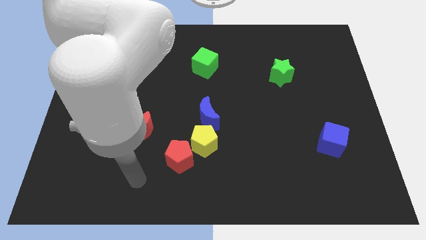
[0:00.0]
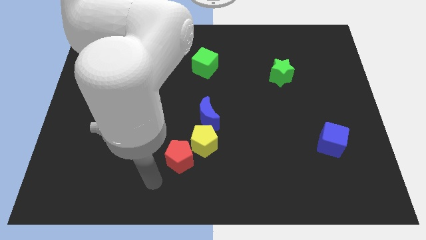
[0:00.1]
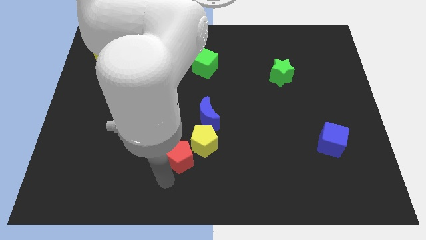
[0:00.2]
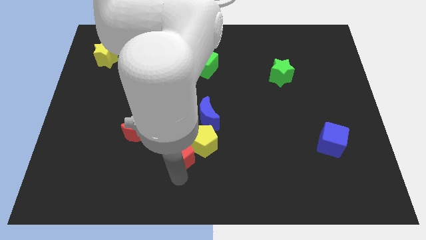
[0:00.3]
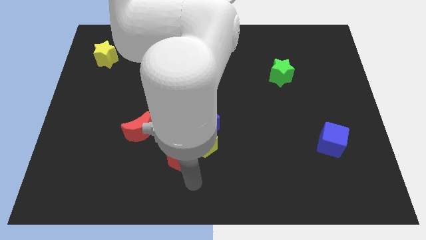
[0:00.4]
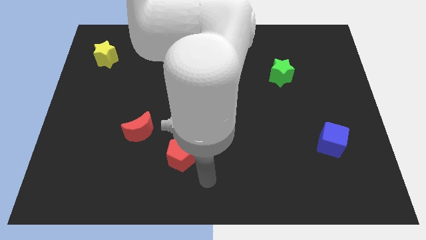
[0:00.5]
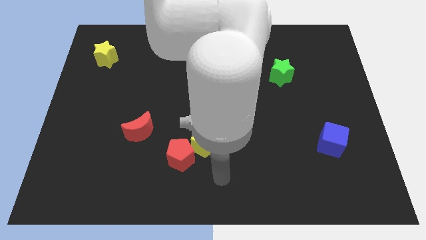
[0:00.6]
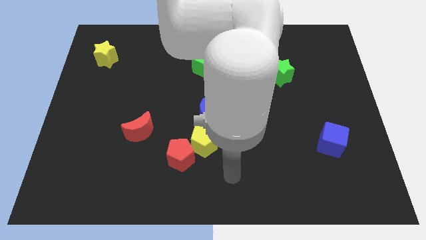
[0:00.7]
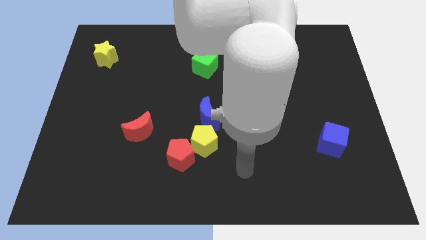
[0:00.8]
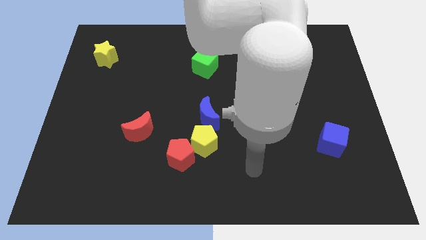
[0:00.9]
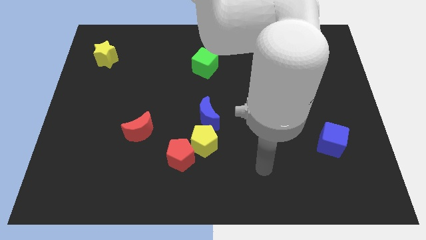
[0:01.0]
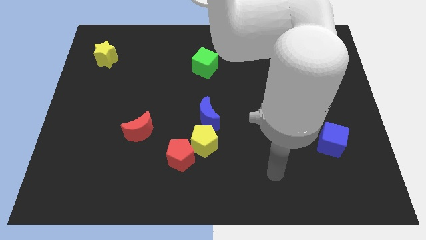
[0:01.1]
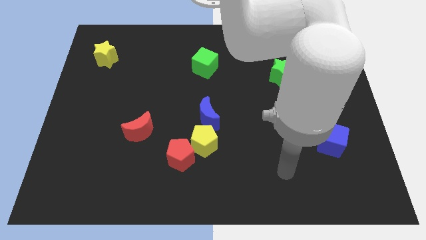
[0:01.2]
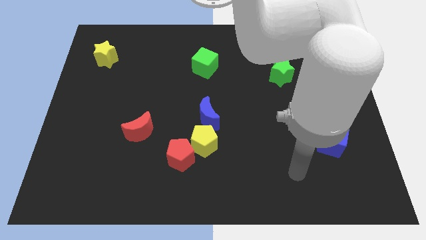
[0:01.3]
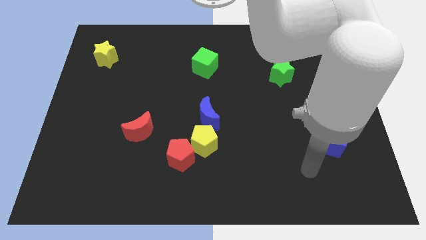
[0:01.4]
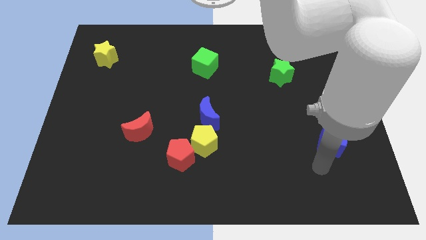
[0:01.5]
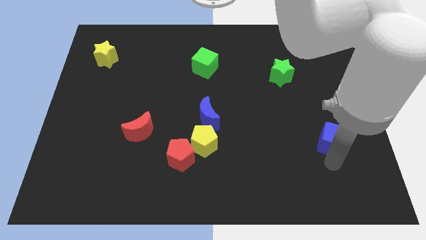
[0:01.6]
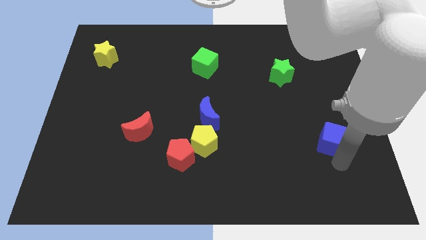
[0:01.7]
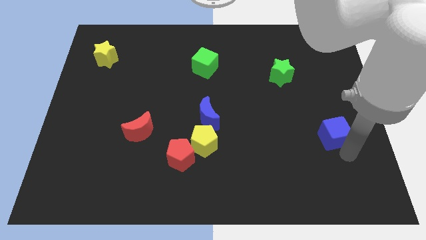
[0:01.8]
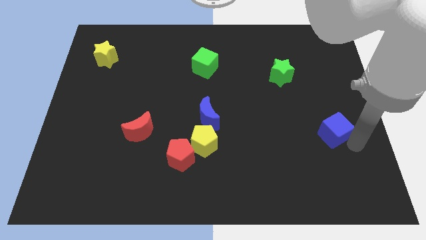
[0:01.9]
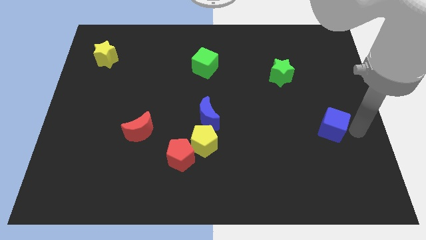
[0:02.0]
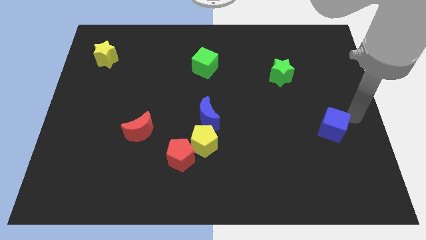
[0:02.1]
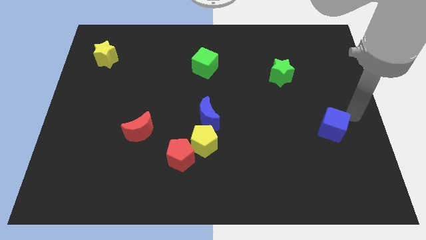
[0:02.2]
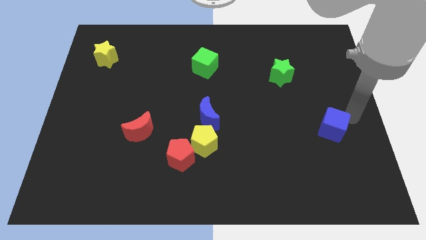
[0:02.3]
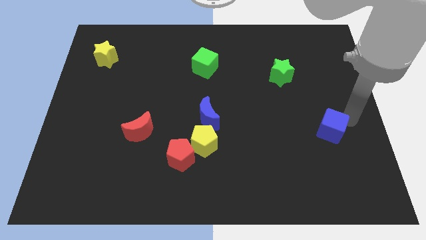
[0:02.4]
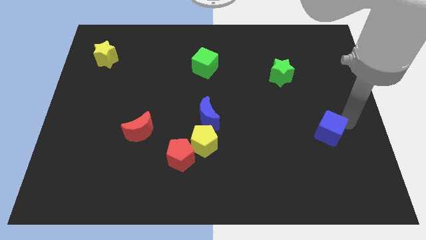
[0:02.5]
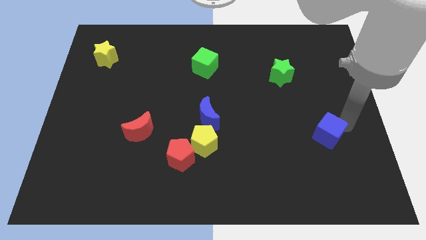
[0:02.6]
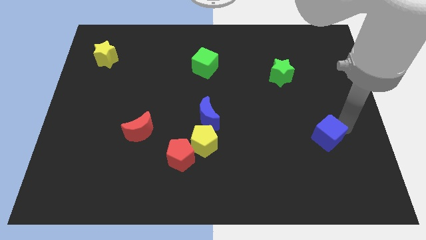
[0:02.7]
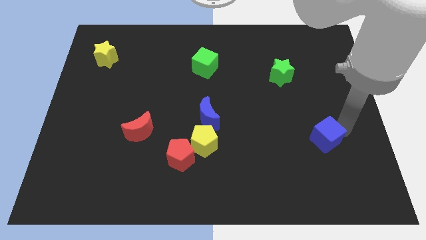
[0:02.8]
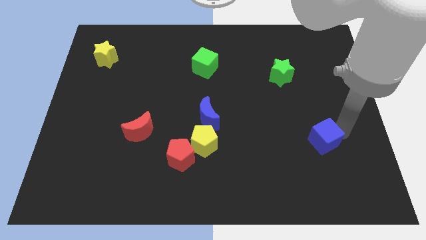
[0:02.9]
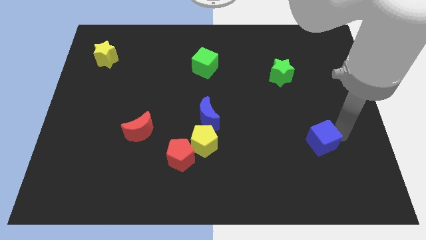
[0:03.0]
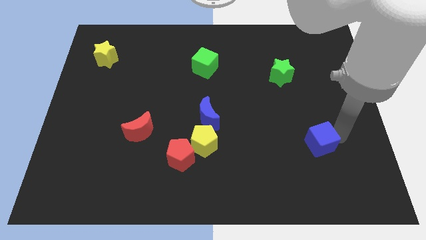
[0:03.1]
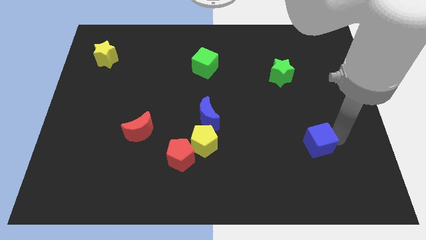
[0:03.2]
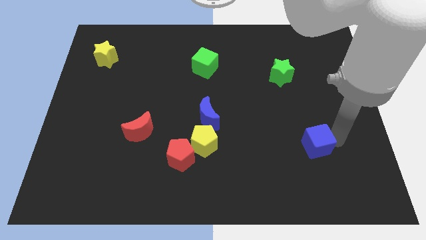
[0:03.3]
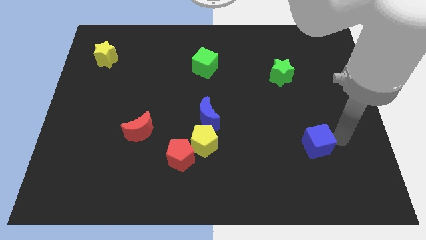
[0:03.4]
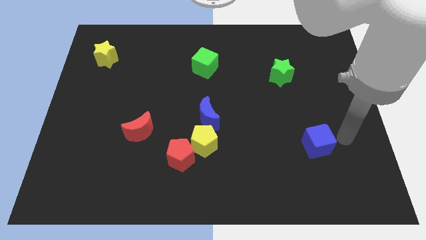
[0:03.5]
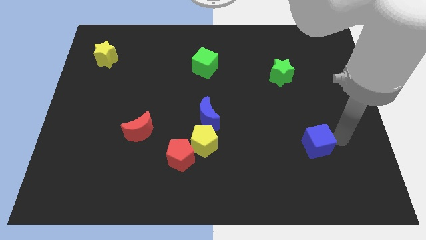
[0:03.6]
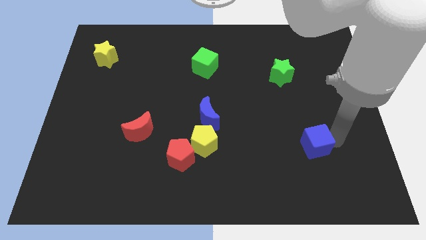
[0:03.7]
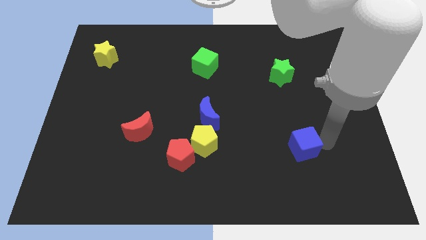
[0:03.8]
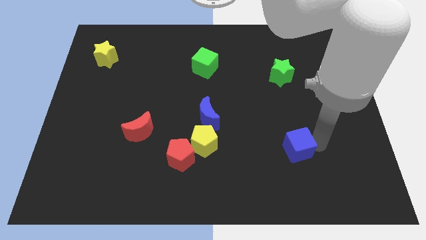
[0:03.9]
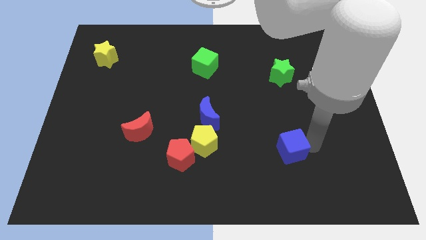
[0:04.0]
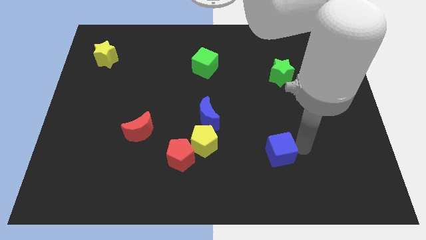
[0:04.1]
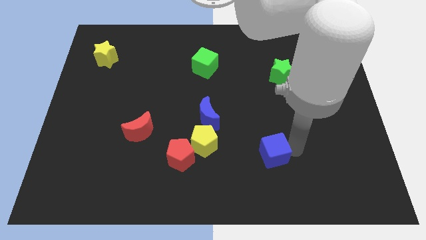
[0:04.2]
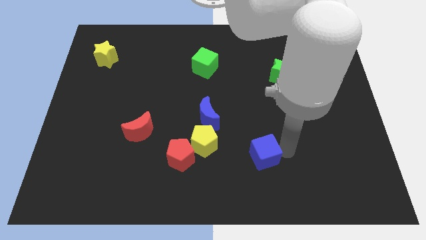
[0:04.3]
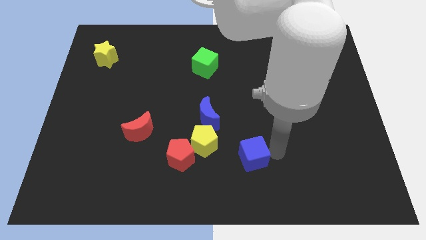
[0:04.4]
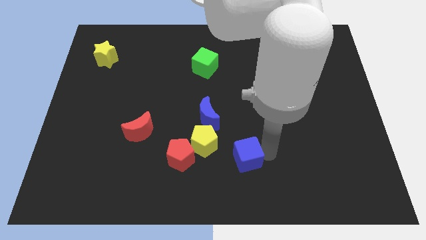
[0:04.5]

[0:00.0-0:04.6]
push the blue cube diagonally down and to the right of the yellow pentagon

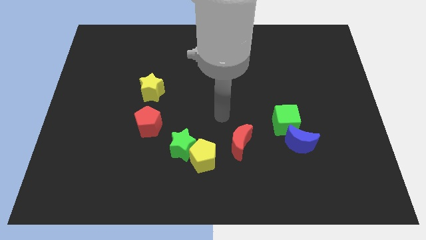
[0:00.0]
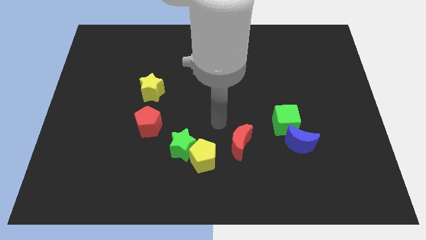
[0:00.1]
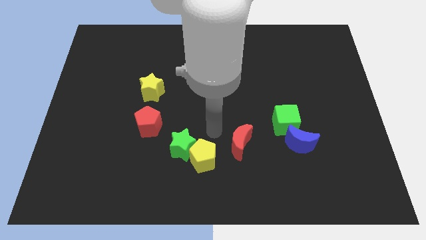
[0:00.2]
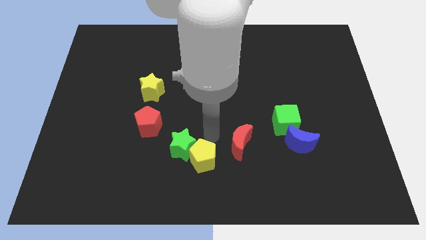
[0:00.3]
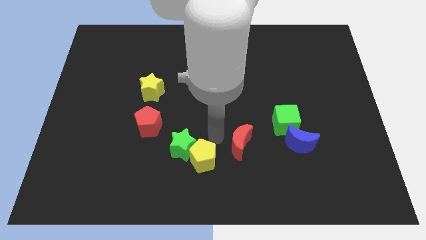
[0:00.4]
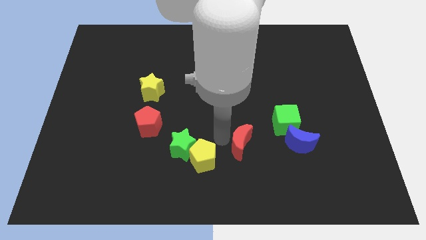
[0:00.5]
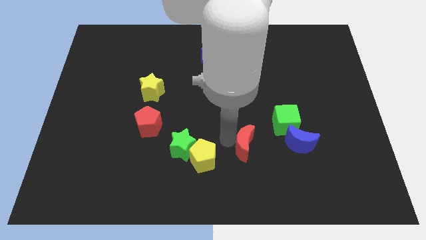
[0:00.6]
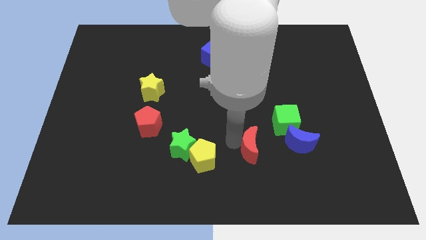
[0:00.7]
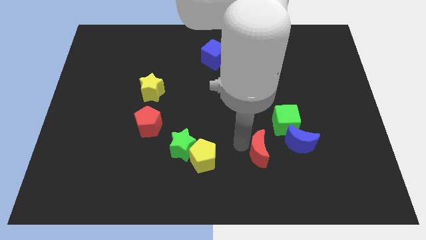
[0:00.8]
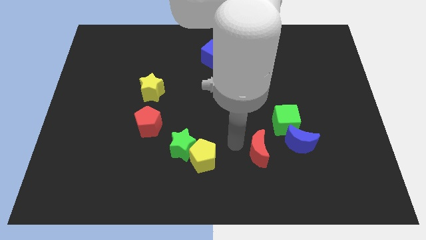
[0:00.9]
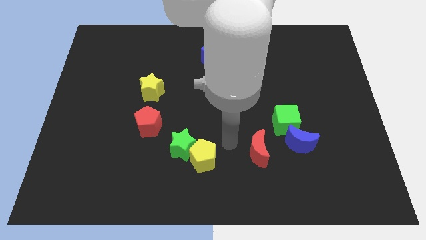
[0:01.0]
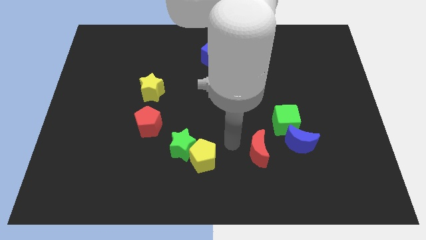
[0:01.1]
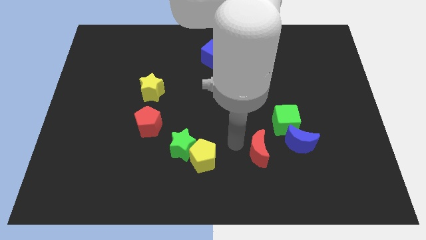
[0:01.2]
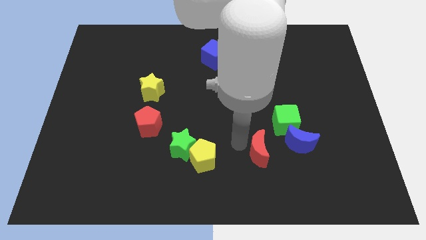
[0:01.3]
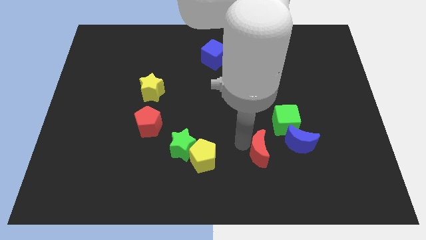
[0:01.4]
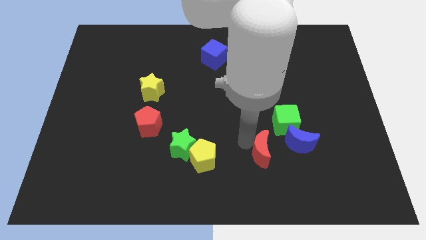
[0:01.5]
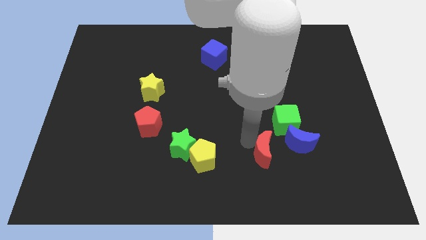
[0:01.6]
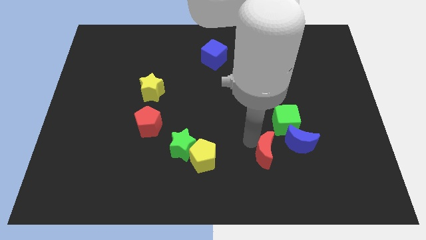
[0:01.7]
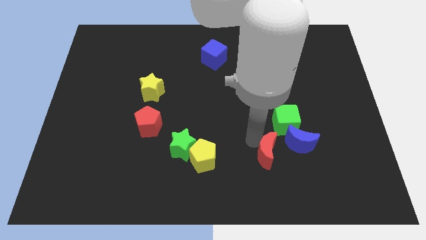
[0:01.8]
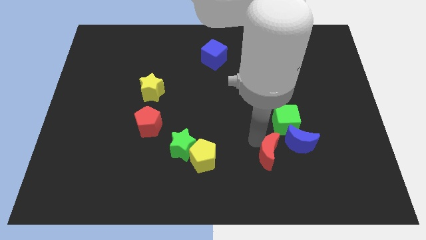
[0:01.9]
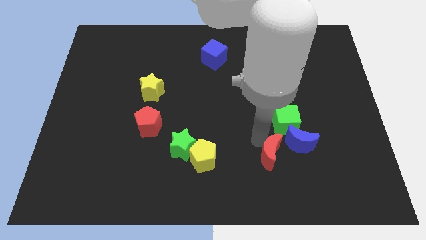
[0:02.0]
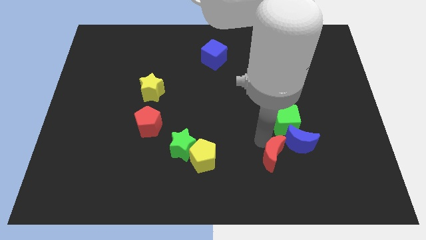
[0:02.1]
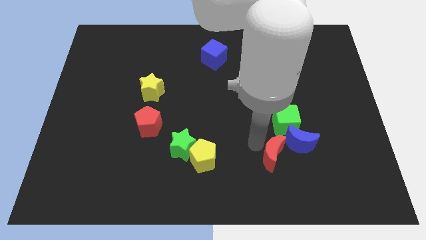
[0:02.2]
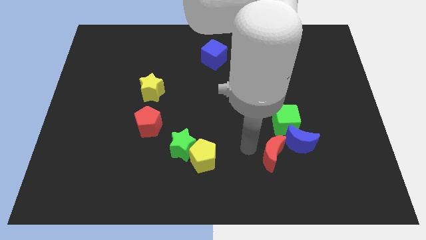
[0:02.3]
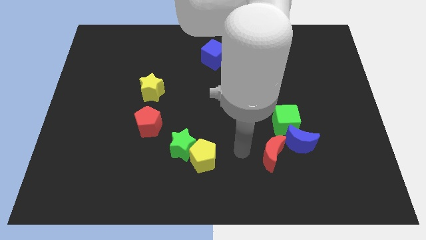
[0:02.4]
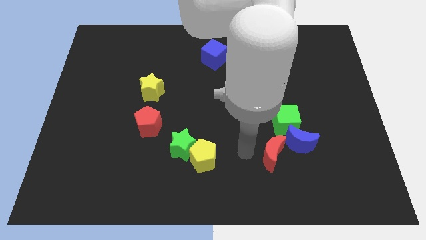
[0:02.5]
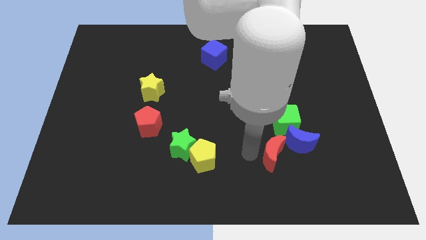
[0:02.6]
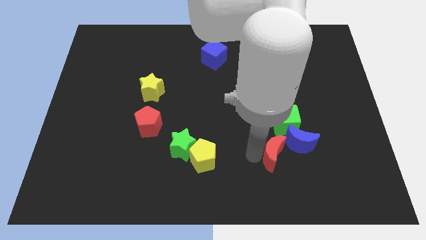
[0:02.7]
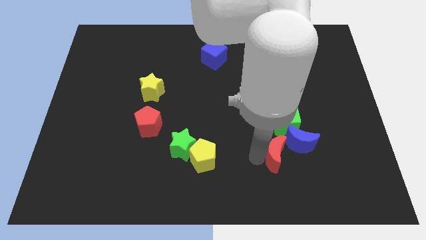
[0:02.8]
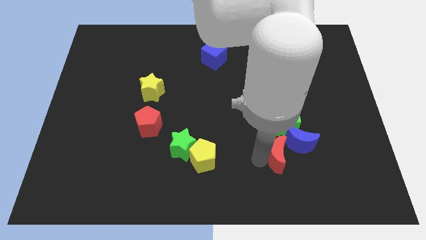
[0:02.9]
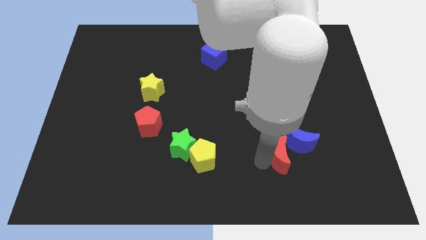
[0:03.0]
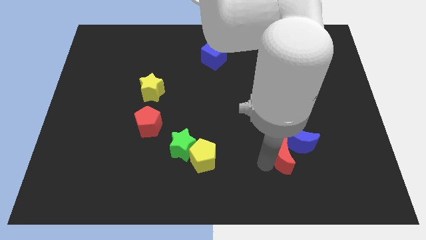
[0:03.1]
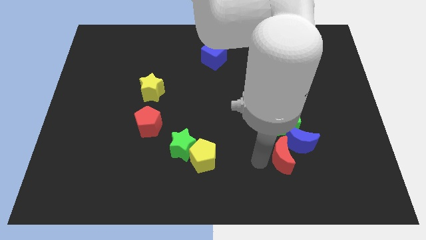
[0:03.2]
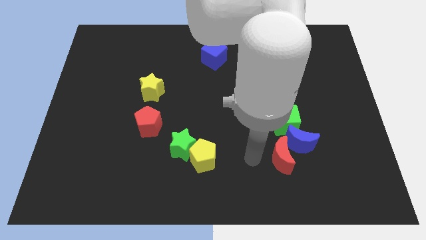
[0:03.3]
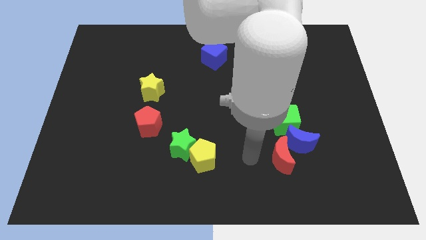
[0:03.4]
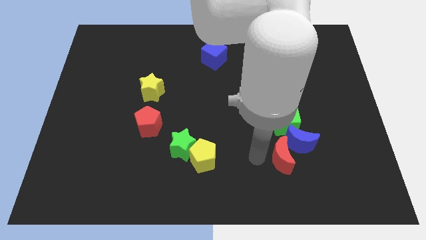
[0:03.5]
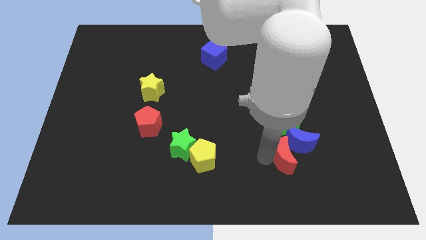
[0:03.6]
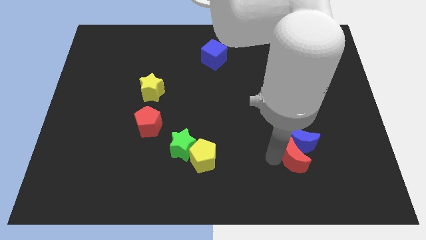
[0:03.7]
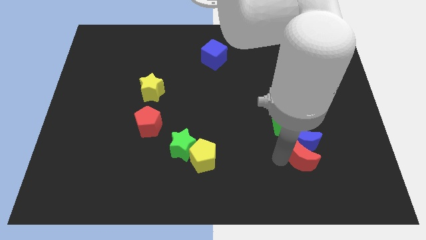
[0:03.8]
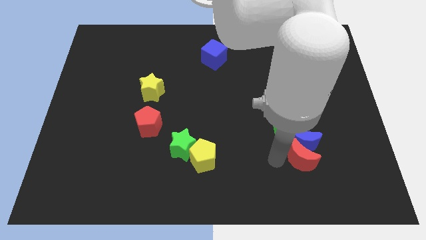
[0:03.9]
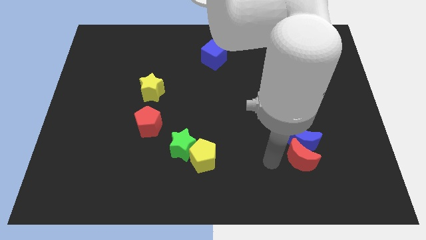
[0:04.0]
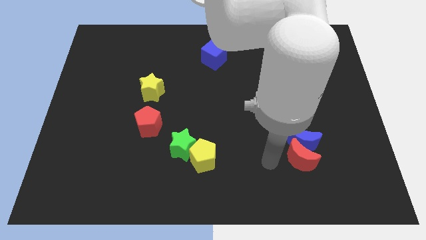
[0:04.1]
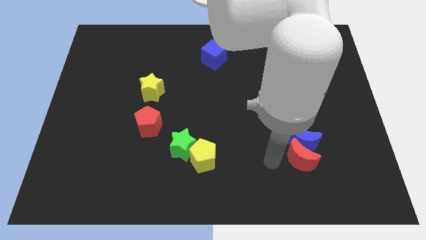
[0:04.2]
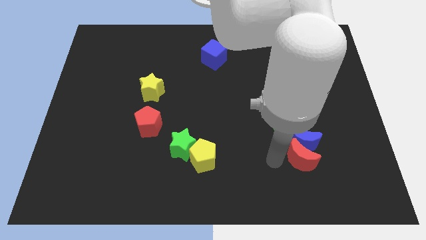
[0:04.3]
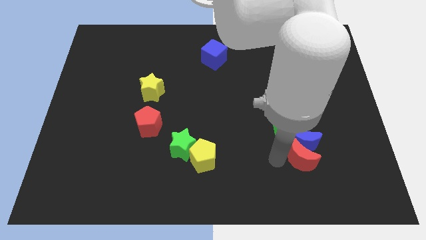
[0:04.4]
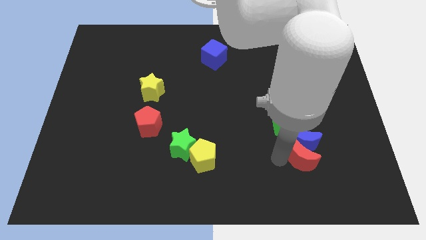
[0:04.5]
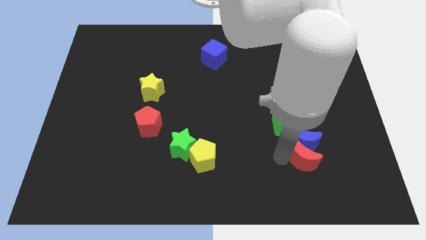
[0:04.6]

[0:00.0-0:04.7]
push the red moon to the bottom right side of the green cube
